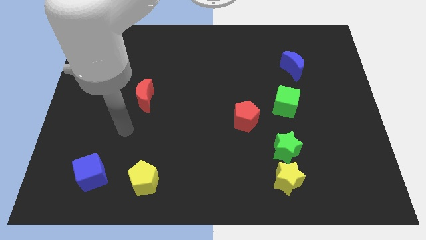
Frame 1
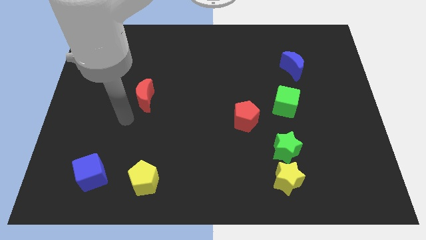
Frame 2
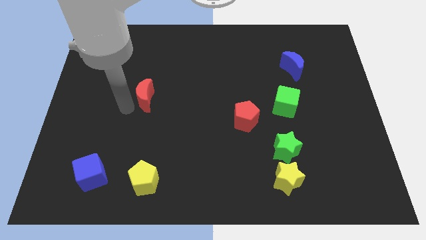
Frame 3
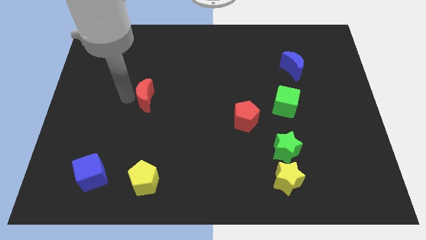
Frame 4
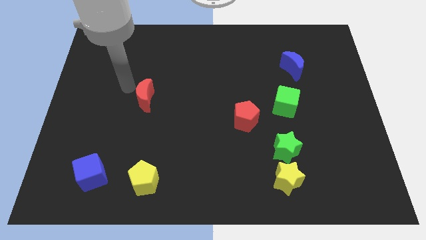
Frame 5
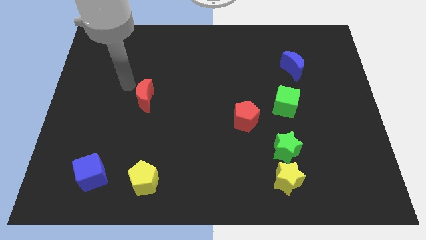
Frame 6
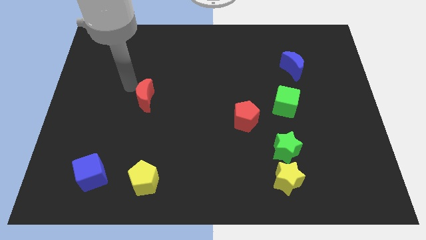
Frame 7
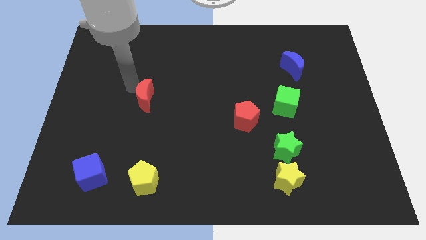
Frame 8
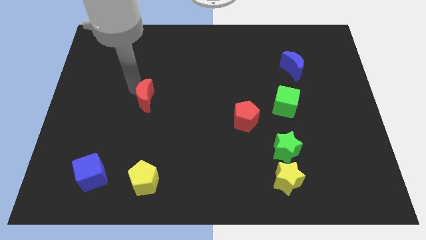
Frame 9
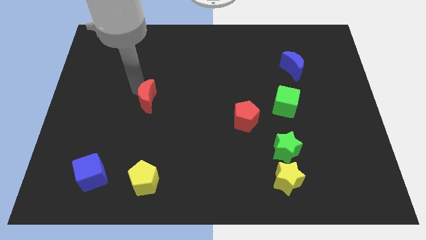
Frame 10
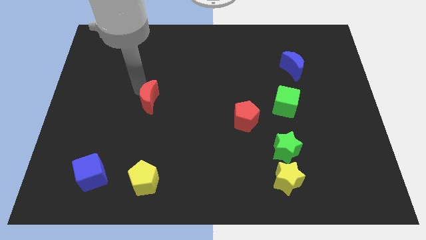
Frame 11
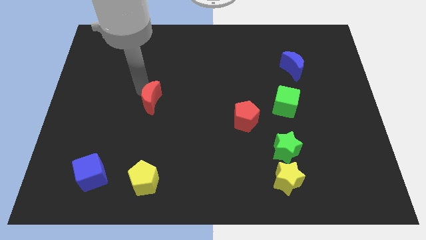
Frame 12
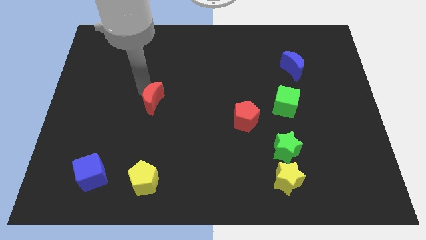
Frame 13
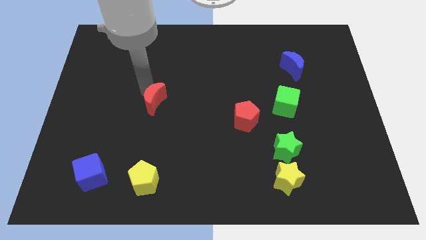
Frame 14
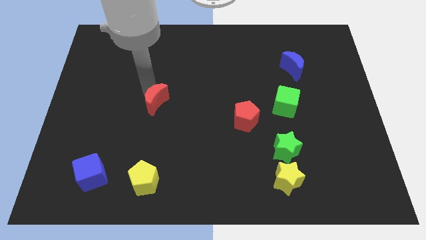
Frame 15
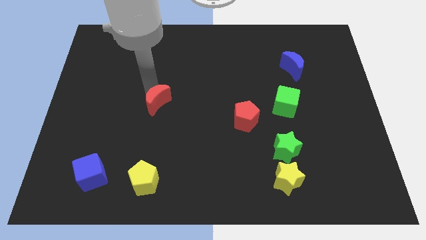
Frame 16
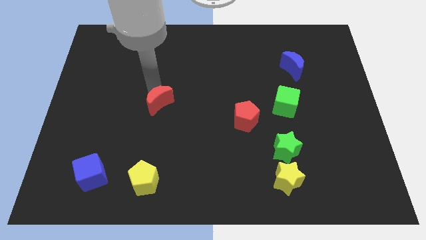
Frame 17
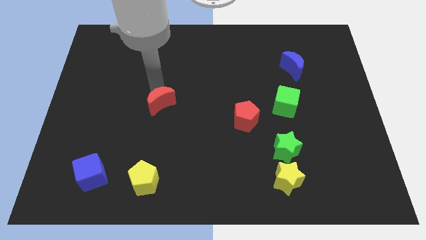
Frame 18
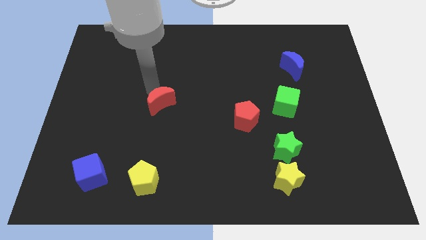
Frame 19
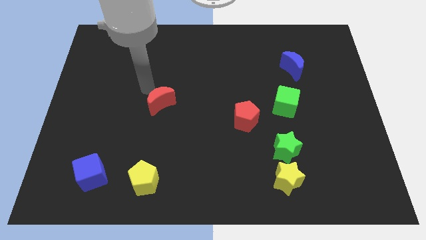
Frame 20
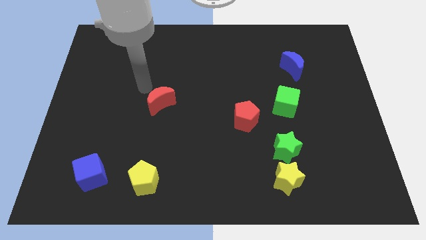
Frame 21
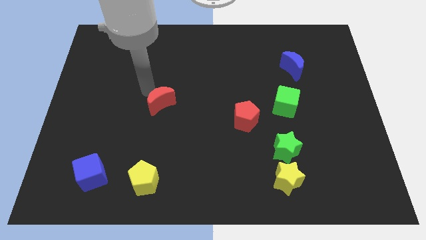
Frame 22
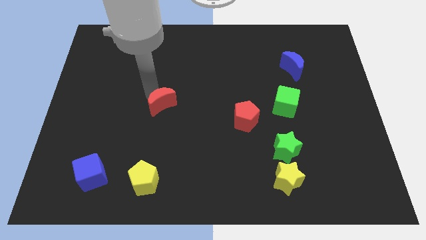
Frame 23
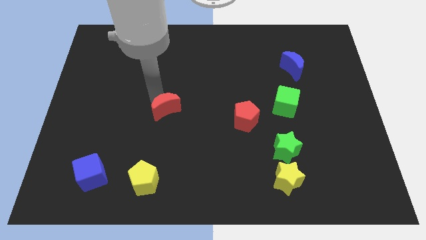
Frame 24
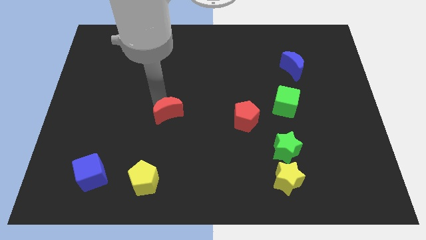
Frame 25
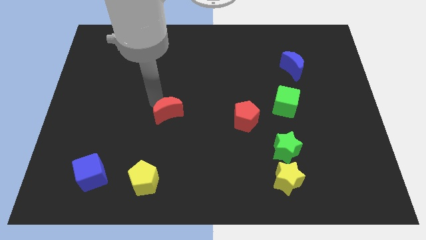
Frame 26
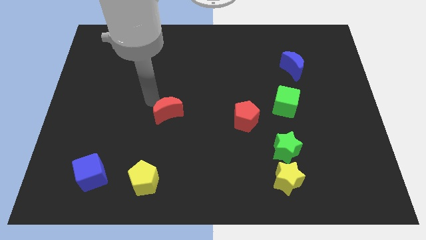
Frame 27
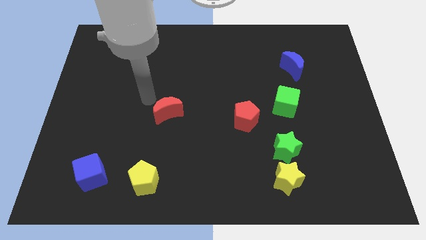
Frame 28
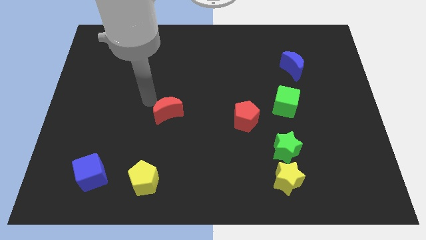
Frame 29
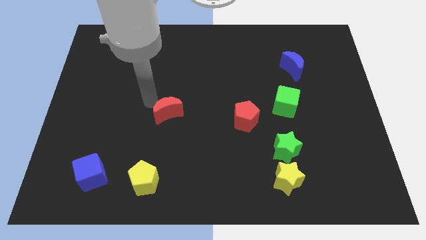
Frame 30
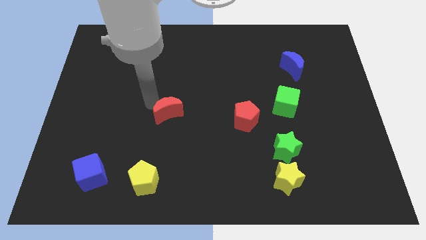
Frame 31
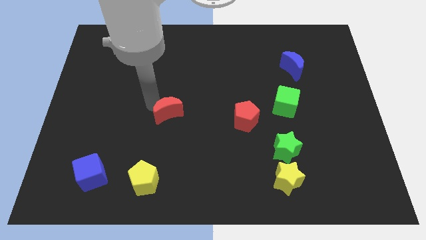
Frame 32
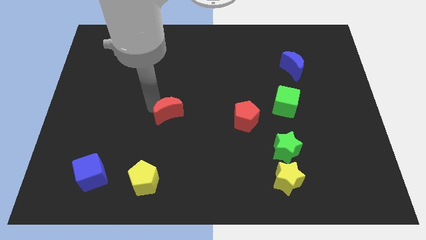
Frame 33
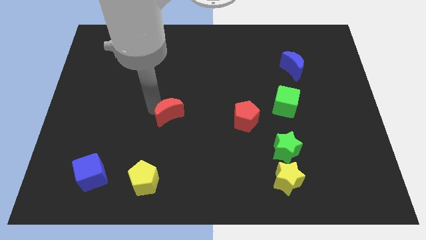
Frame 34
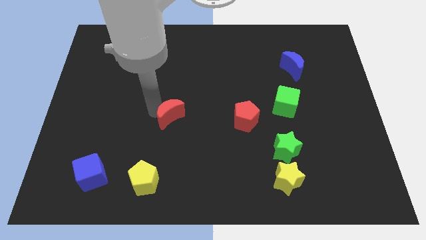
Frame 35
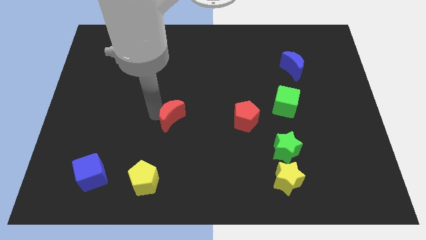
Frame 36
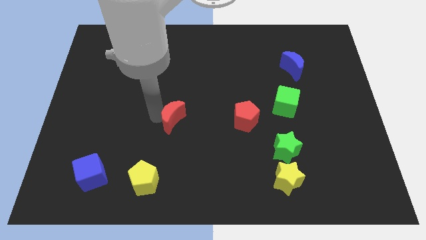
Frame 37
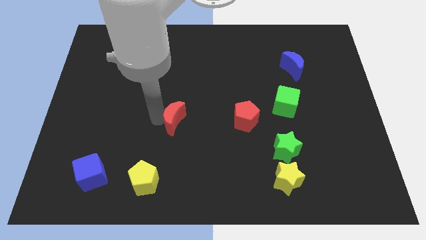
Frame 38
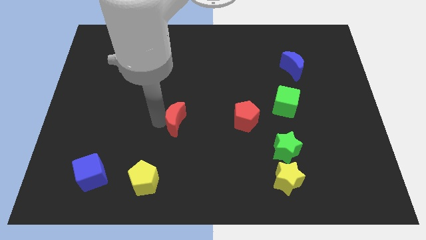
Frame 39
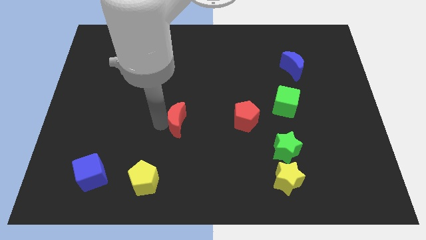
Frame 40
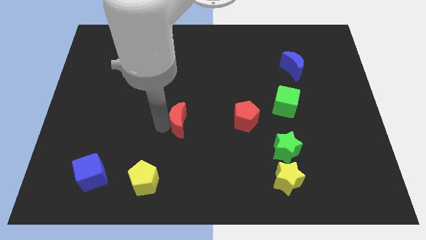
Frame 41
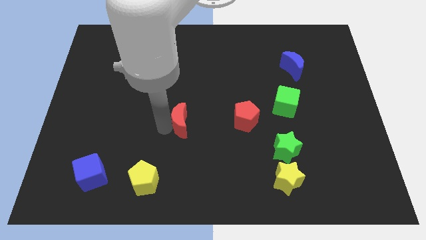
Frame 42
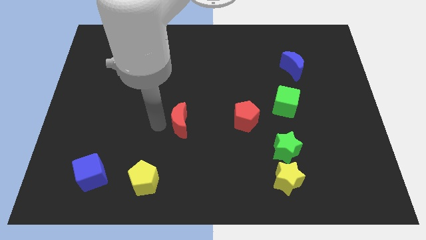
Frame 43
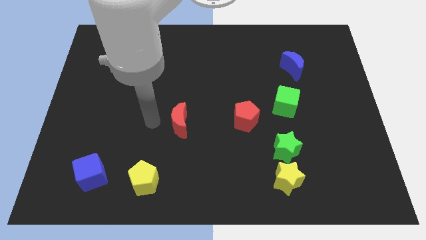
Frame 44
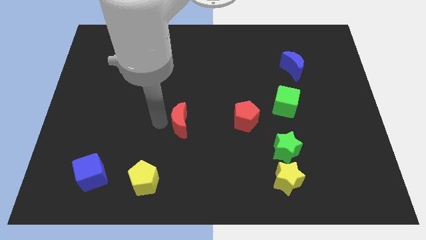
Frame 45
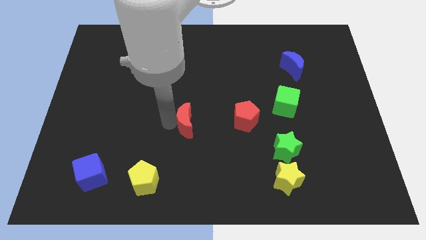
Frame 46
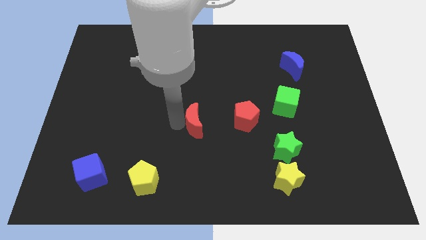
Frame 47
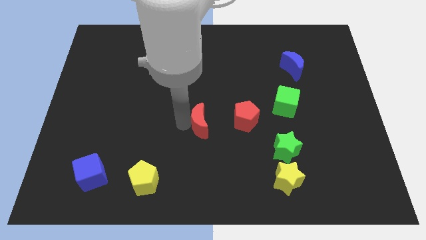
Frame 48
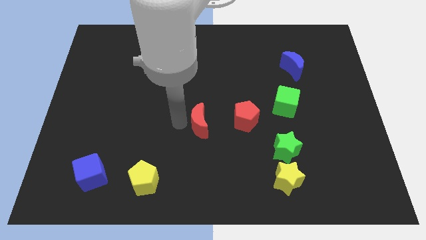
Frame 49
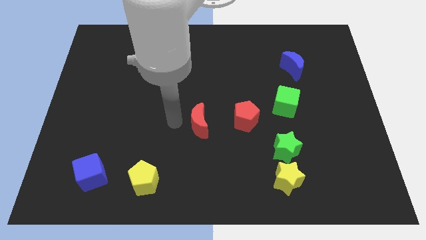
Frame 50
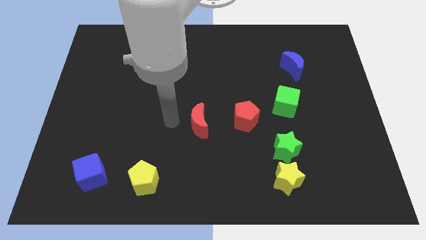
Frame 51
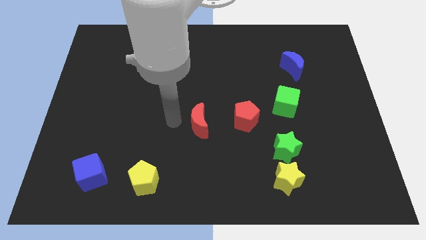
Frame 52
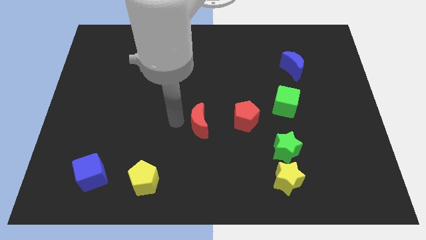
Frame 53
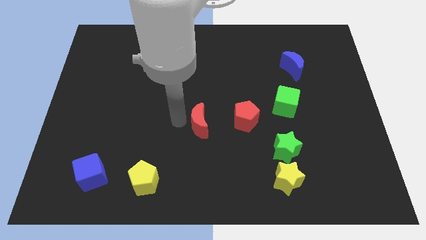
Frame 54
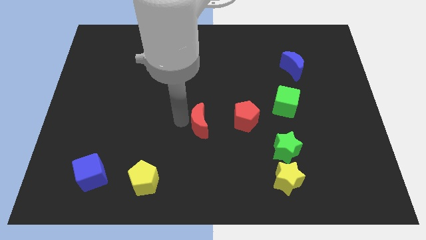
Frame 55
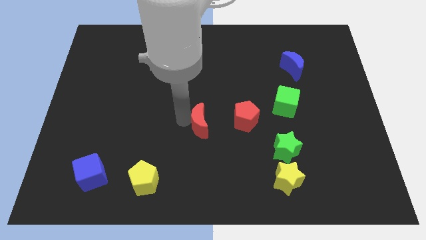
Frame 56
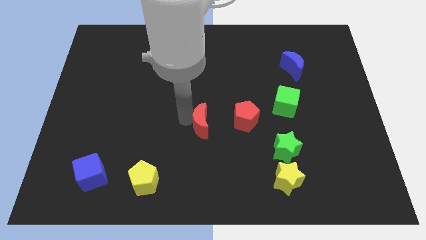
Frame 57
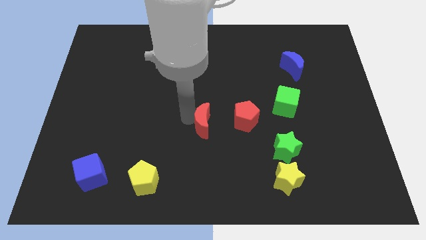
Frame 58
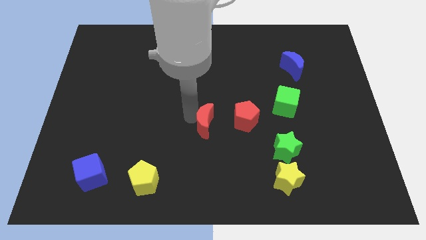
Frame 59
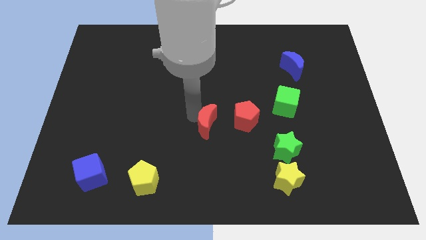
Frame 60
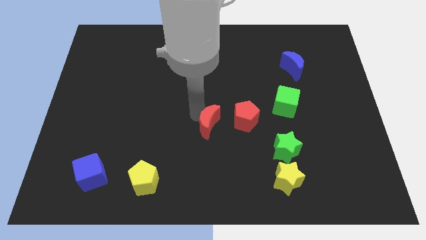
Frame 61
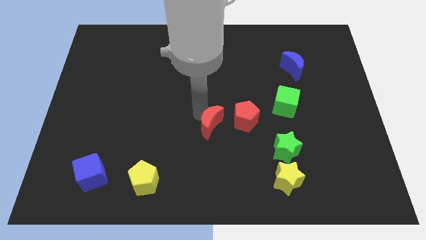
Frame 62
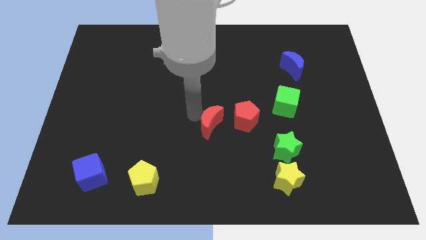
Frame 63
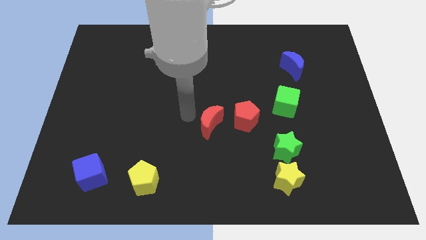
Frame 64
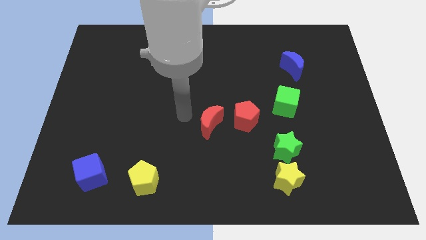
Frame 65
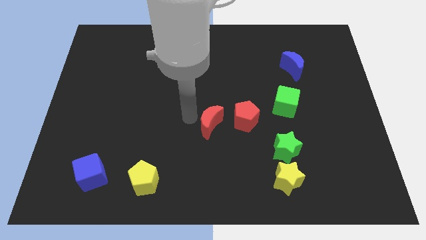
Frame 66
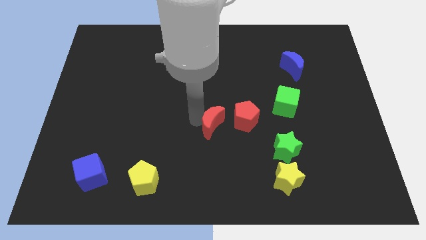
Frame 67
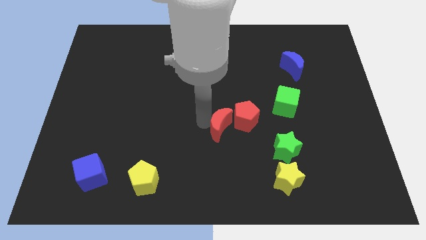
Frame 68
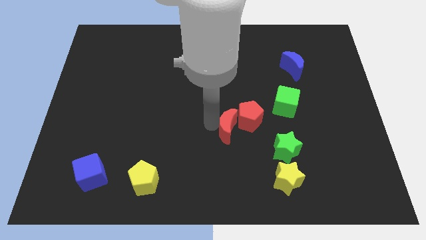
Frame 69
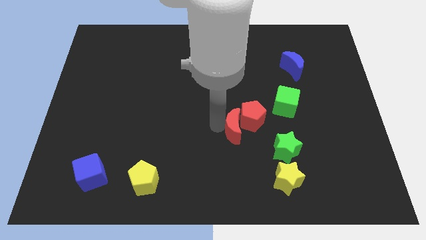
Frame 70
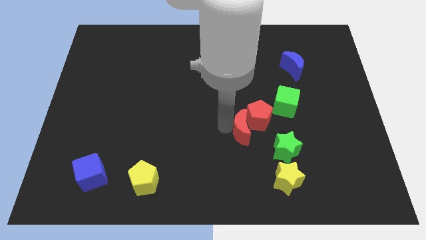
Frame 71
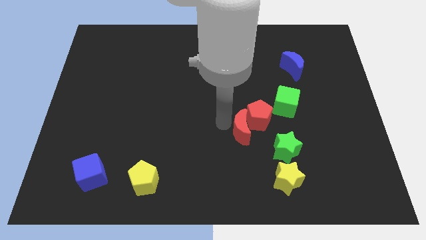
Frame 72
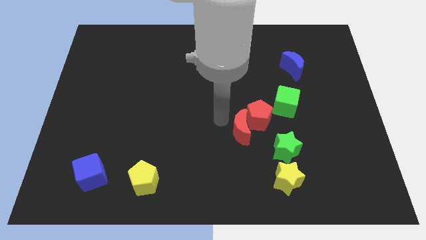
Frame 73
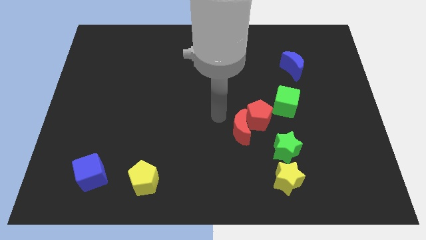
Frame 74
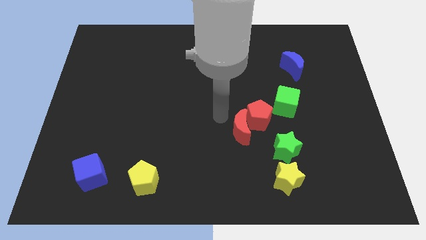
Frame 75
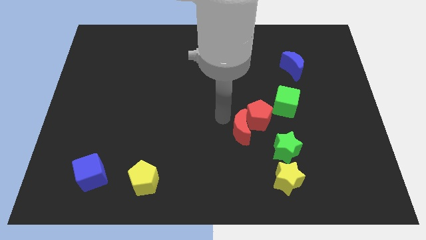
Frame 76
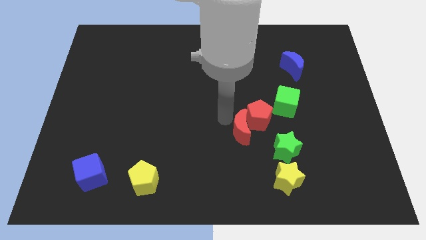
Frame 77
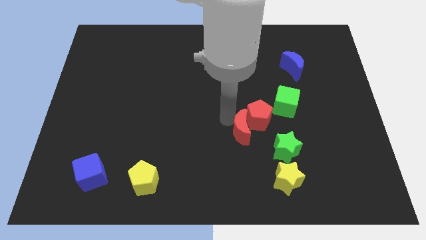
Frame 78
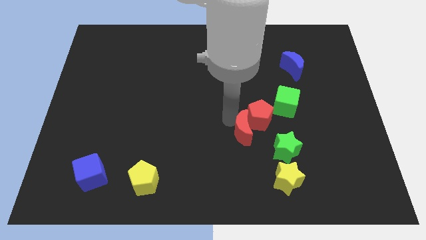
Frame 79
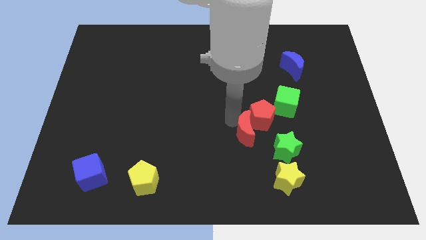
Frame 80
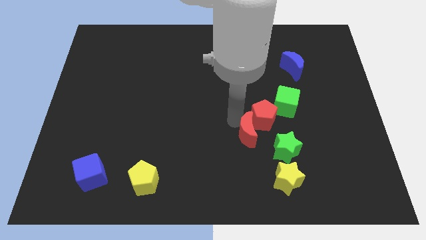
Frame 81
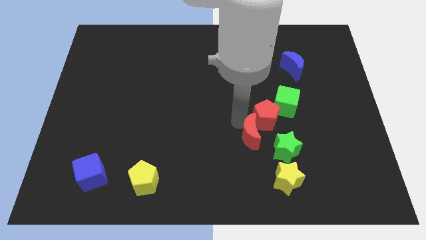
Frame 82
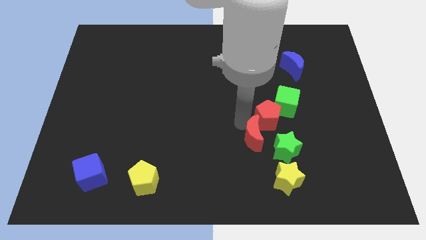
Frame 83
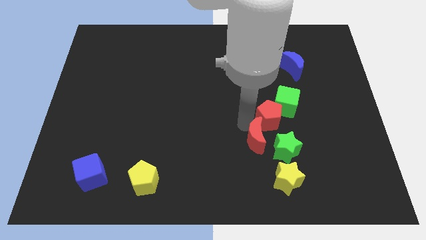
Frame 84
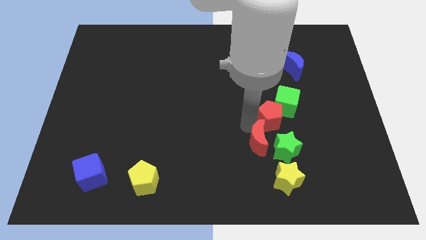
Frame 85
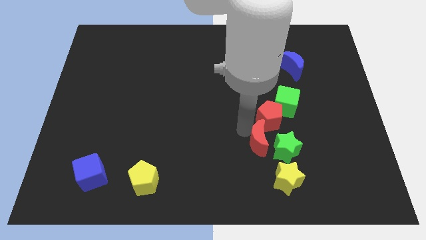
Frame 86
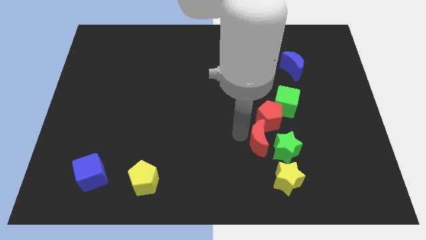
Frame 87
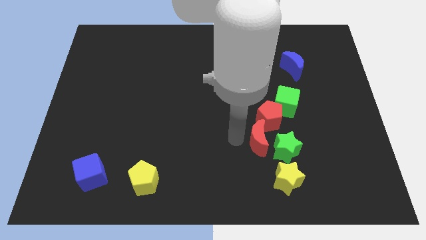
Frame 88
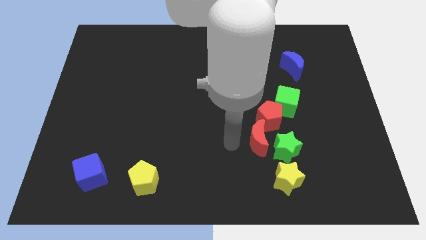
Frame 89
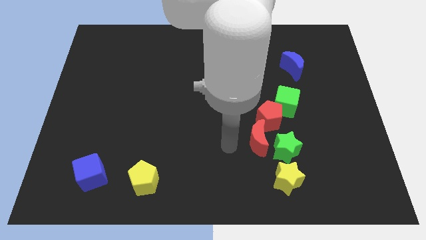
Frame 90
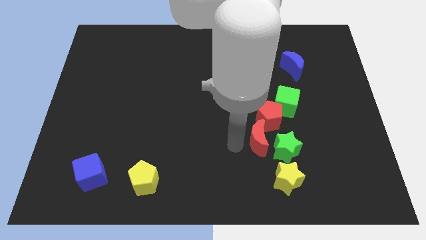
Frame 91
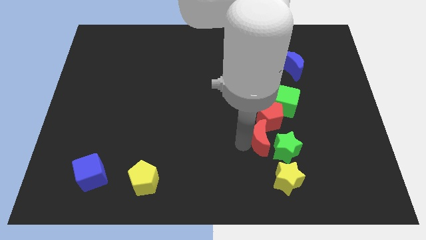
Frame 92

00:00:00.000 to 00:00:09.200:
move the red moon to the top side of the yellow star
